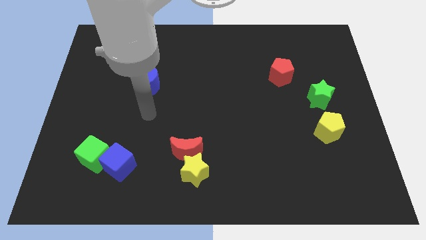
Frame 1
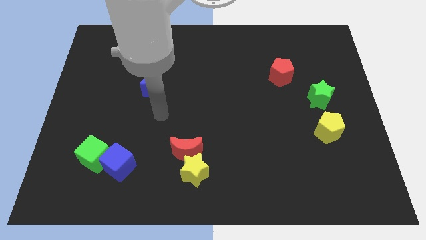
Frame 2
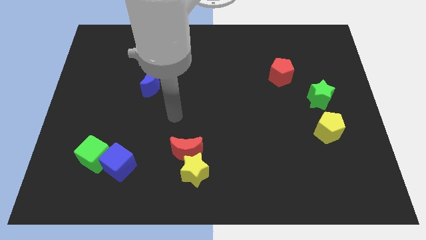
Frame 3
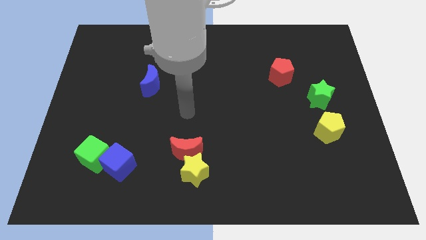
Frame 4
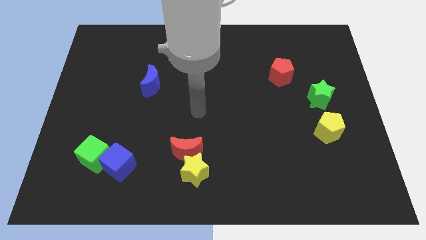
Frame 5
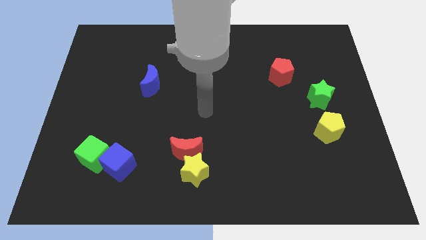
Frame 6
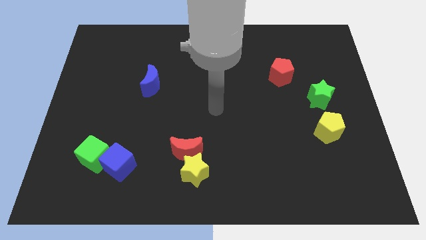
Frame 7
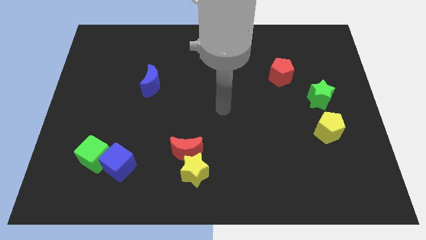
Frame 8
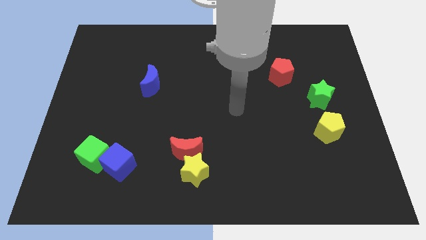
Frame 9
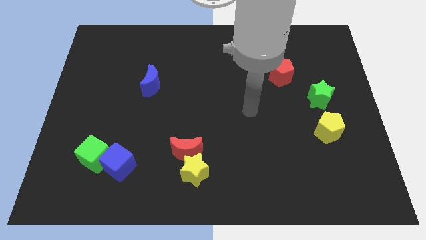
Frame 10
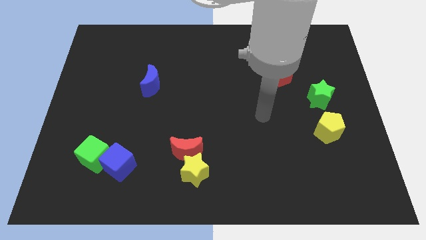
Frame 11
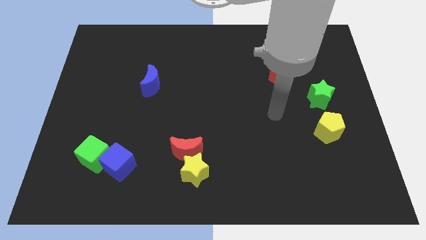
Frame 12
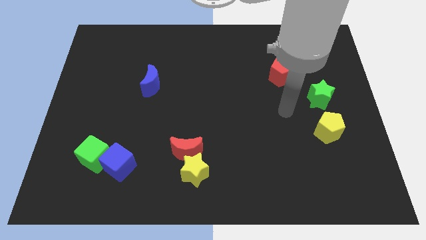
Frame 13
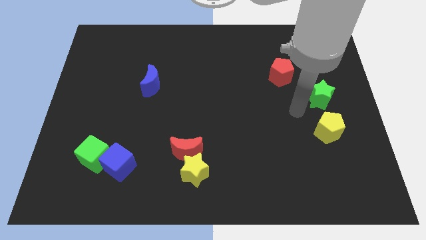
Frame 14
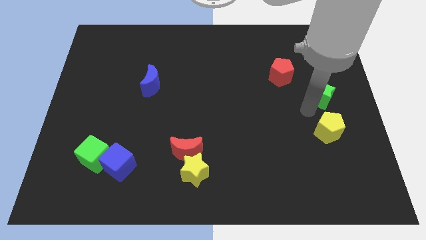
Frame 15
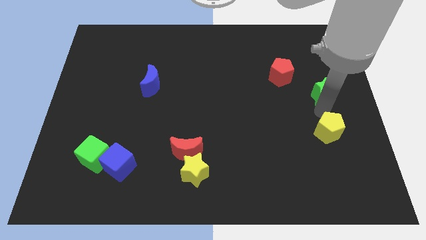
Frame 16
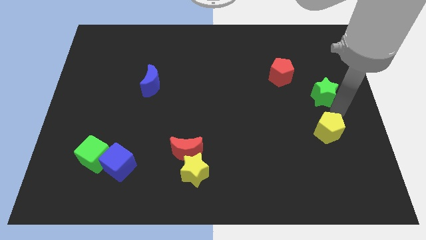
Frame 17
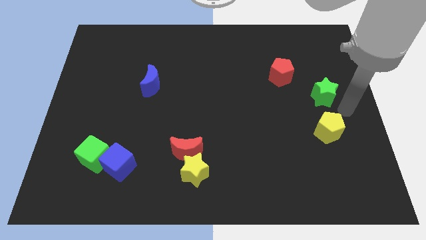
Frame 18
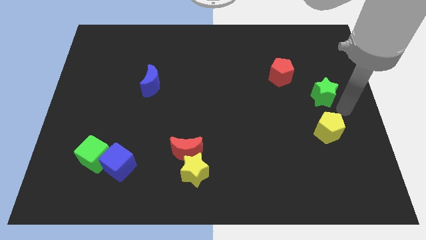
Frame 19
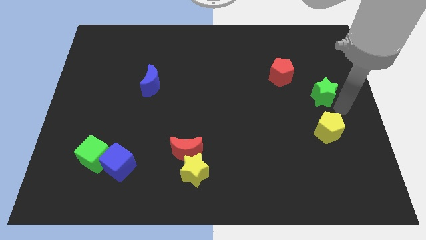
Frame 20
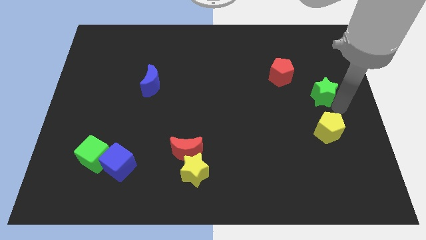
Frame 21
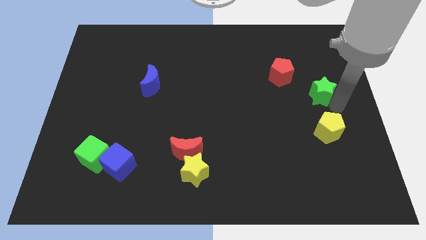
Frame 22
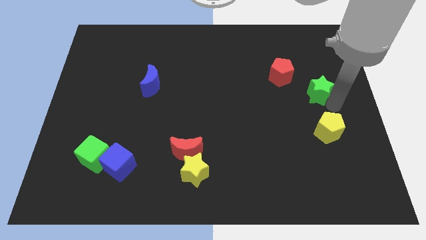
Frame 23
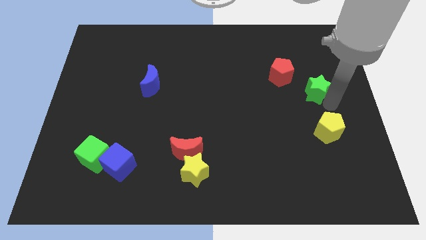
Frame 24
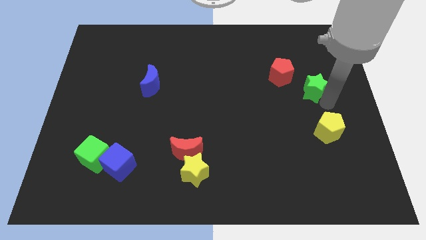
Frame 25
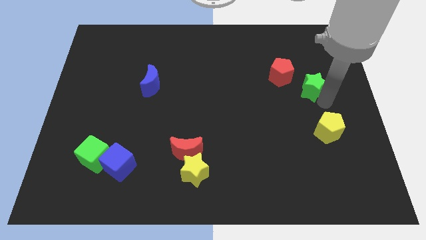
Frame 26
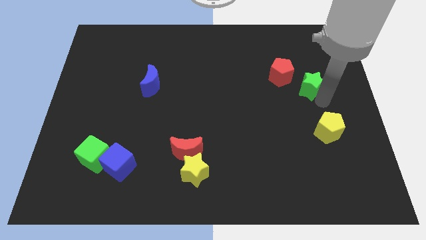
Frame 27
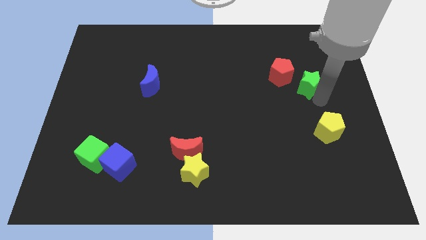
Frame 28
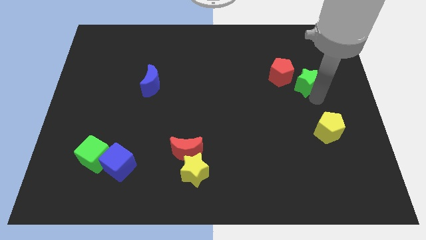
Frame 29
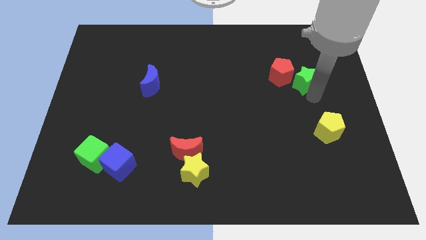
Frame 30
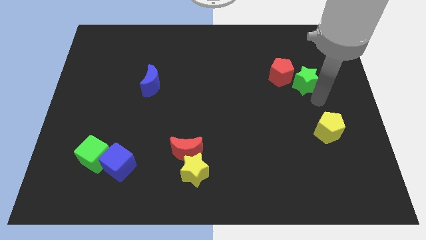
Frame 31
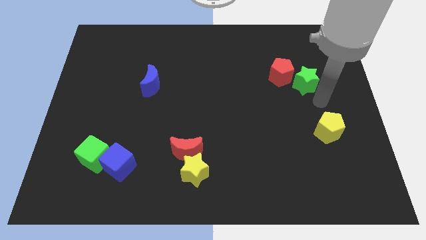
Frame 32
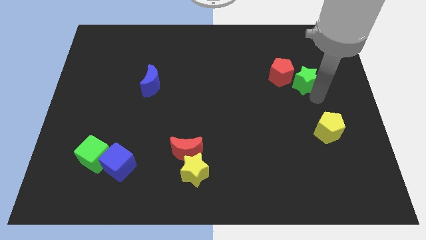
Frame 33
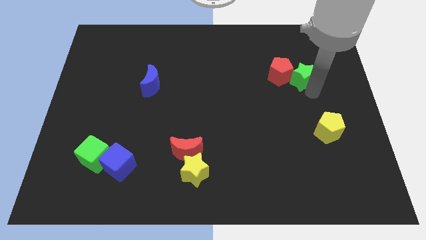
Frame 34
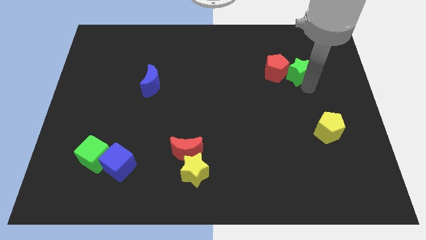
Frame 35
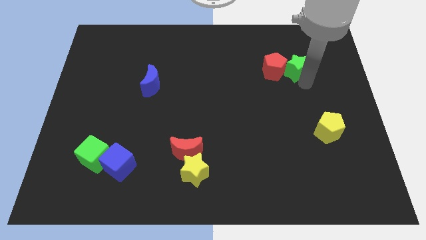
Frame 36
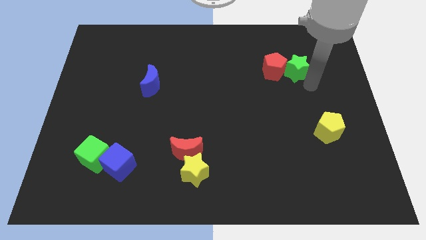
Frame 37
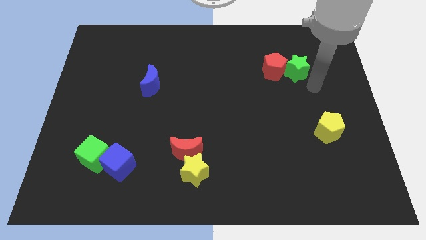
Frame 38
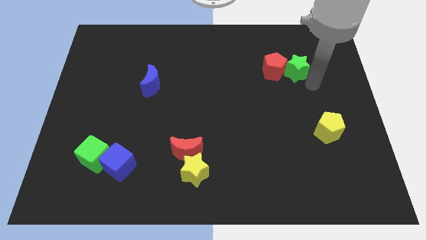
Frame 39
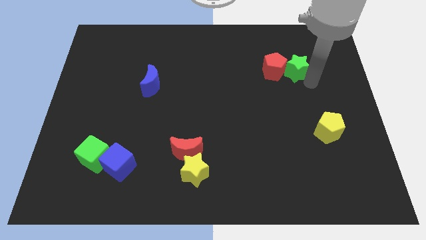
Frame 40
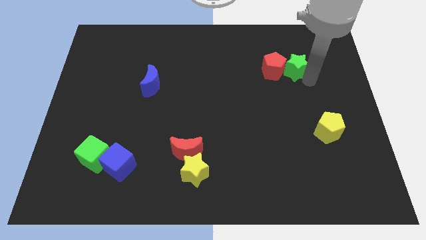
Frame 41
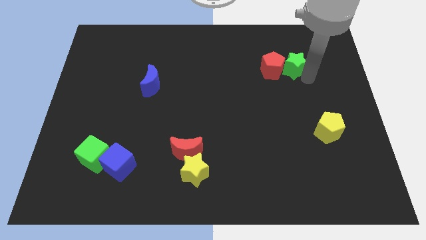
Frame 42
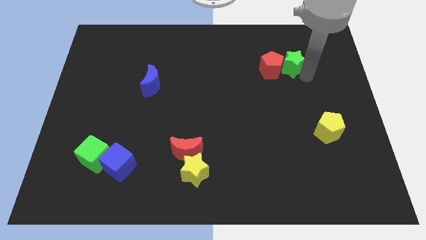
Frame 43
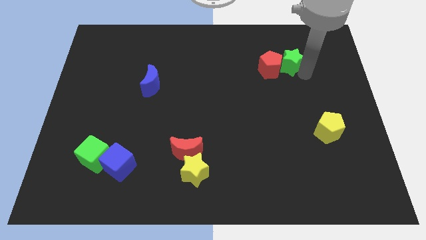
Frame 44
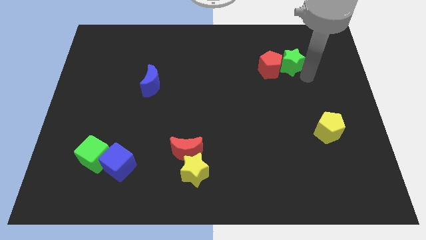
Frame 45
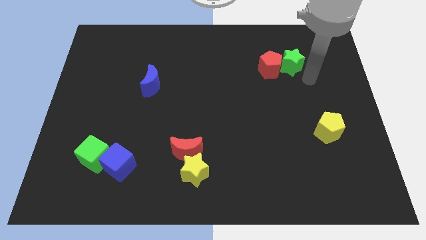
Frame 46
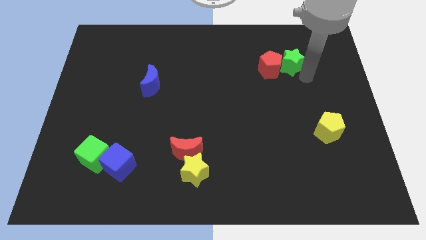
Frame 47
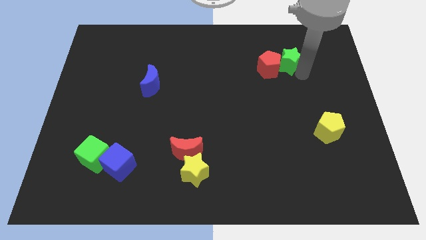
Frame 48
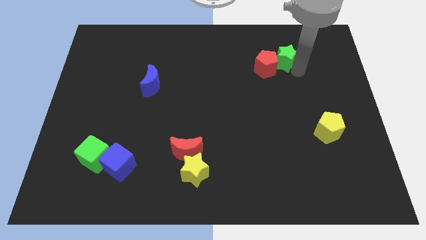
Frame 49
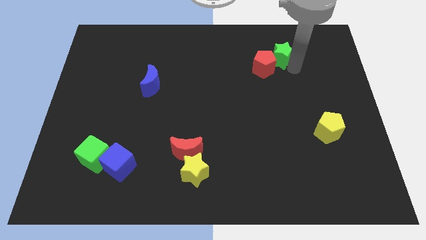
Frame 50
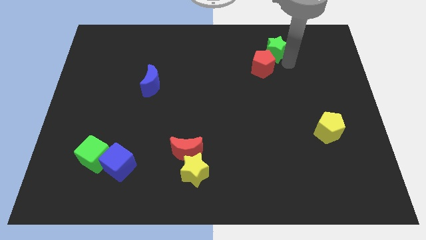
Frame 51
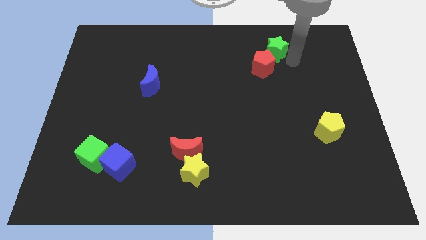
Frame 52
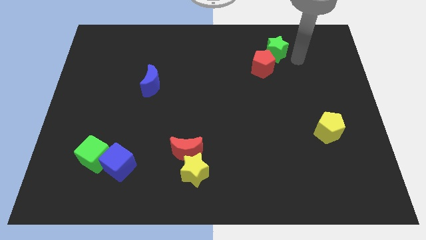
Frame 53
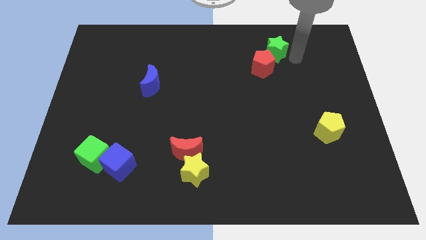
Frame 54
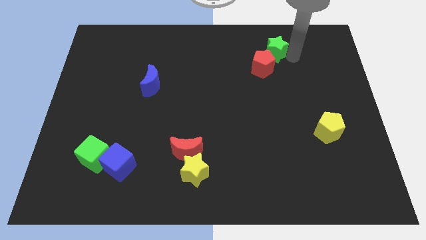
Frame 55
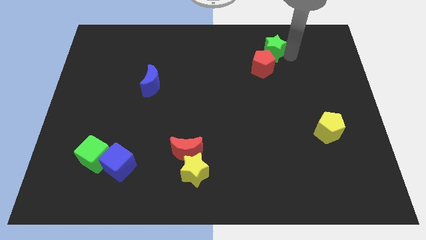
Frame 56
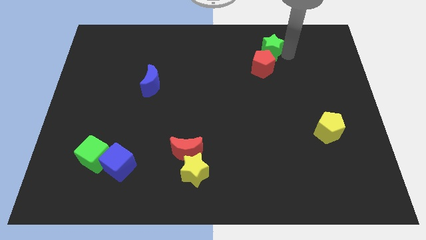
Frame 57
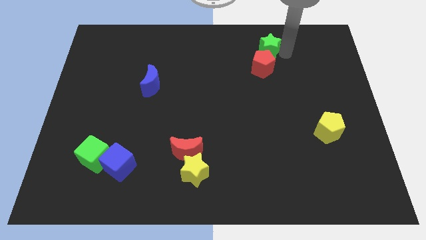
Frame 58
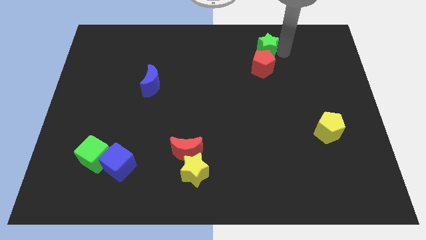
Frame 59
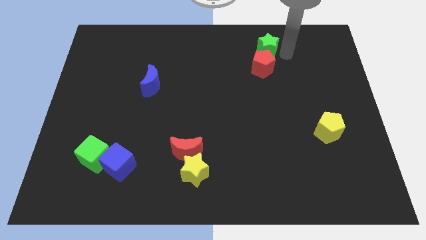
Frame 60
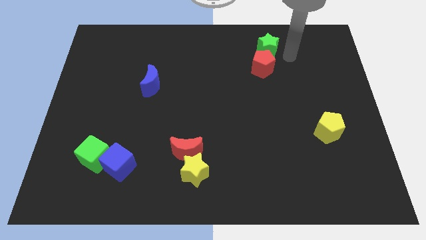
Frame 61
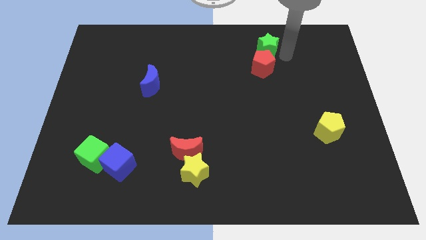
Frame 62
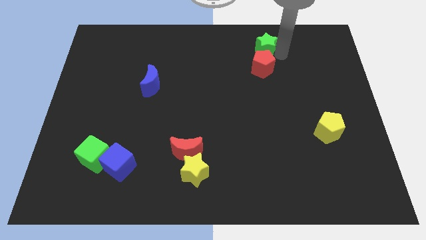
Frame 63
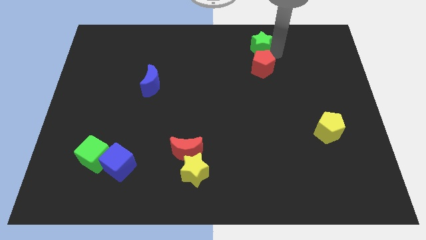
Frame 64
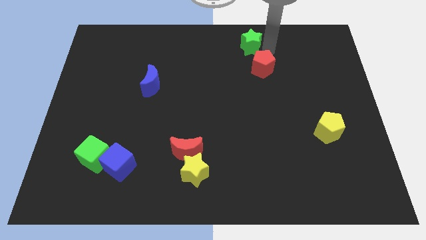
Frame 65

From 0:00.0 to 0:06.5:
put the green star to the top

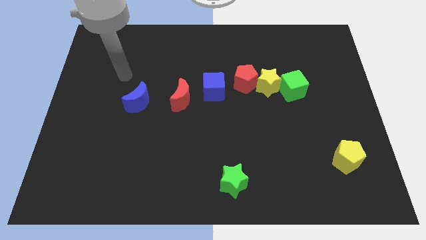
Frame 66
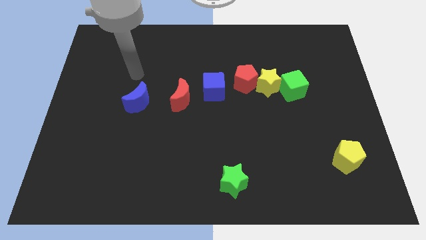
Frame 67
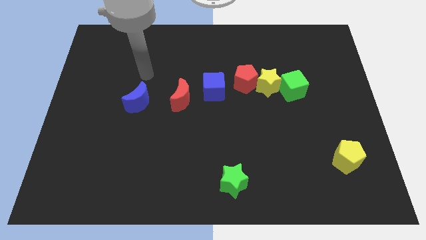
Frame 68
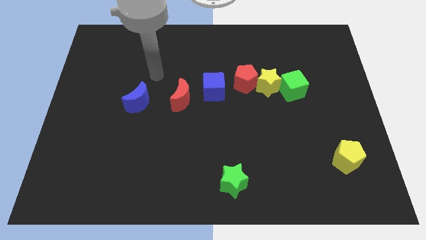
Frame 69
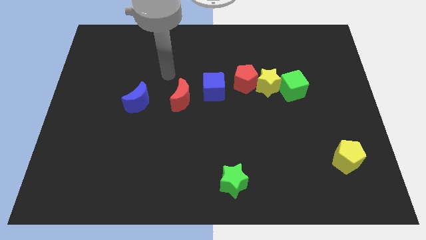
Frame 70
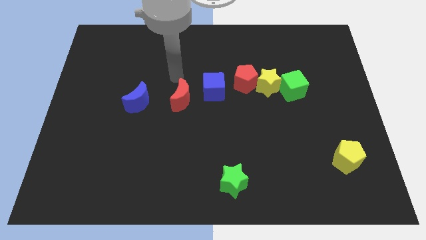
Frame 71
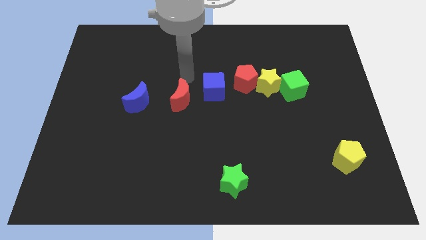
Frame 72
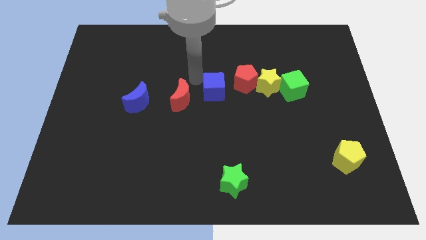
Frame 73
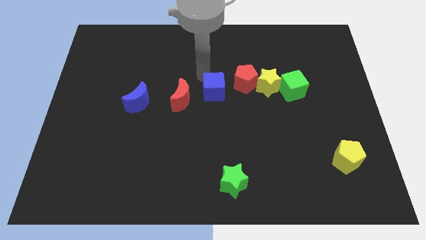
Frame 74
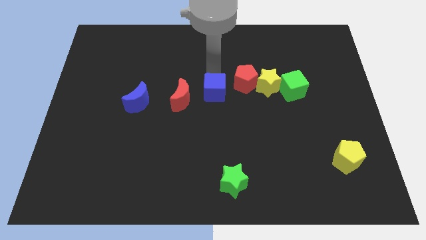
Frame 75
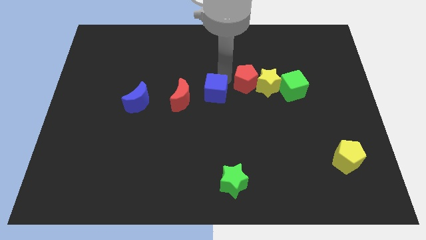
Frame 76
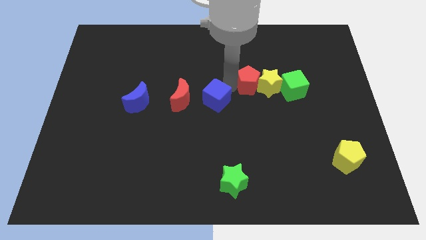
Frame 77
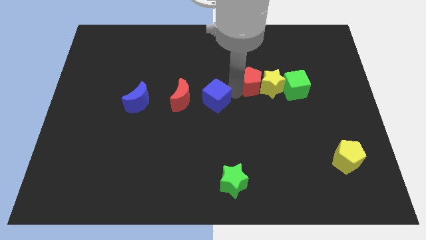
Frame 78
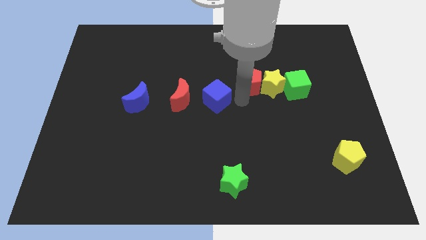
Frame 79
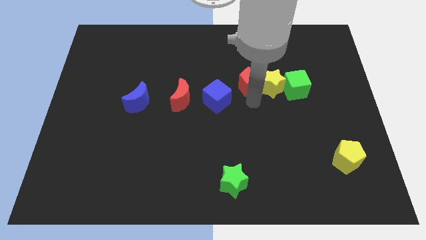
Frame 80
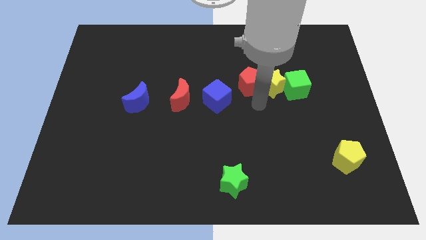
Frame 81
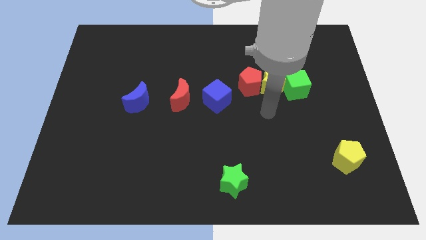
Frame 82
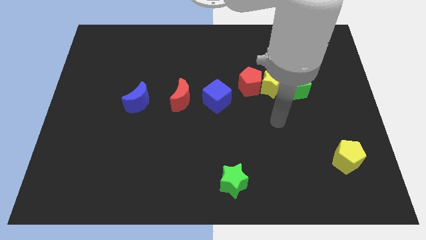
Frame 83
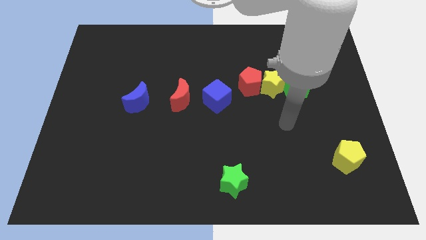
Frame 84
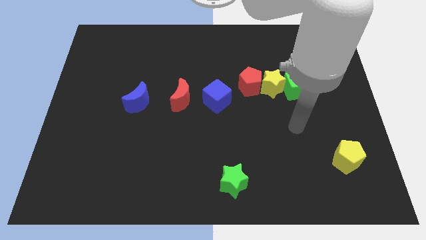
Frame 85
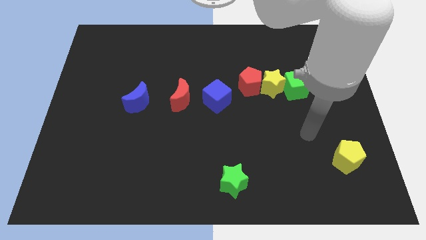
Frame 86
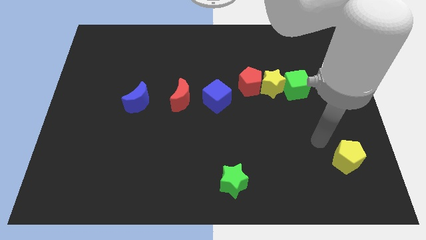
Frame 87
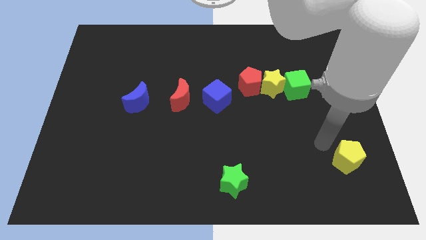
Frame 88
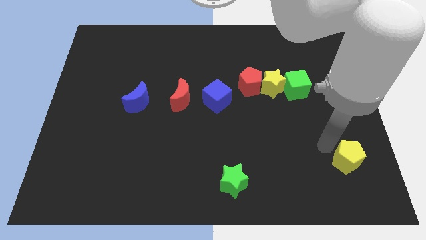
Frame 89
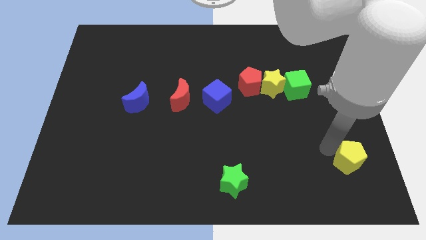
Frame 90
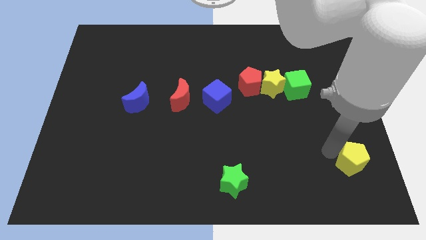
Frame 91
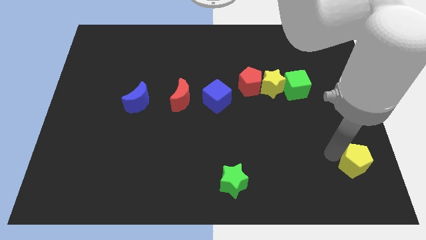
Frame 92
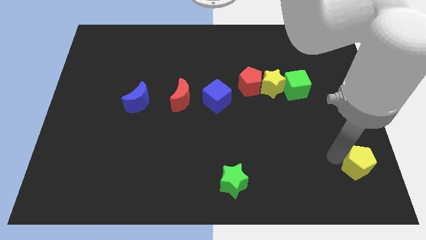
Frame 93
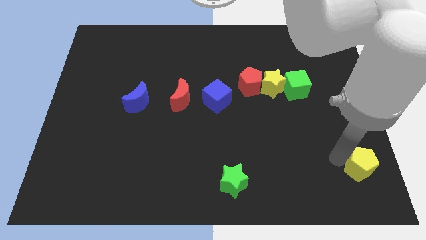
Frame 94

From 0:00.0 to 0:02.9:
slide the yellow pentagon to the bottom right
